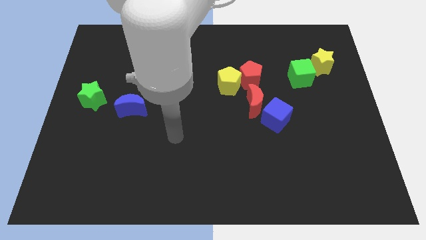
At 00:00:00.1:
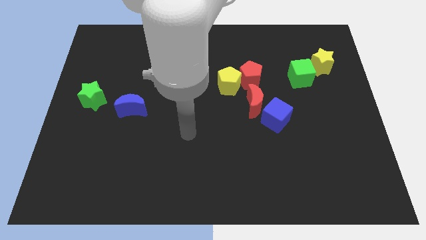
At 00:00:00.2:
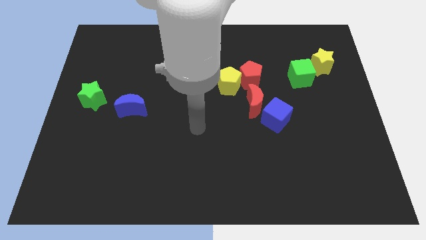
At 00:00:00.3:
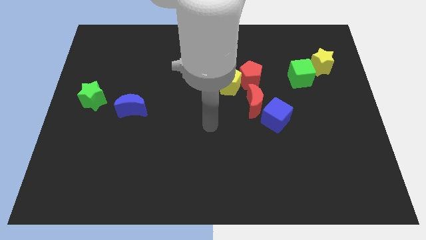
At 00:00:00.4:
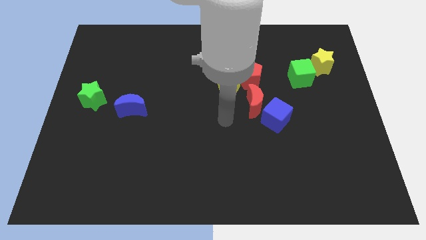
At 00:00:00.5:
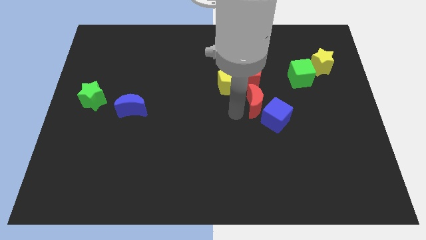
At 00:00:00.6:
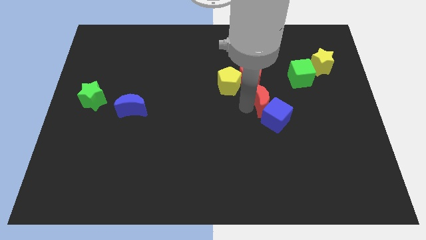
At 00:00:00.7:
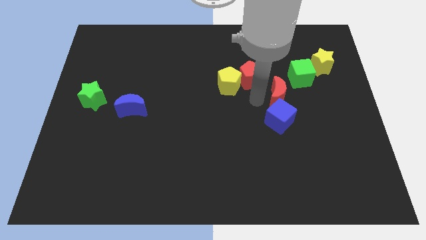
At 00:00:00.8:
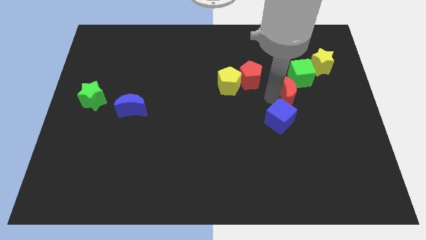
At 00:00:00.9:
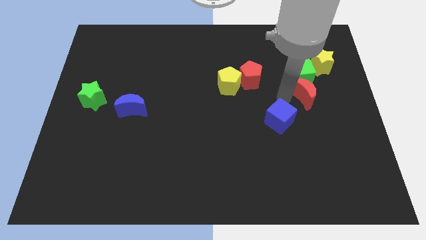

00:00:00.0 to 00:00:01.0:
pull the blue cube apart from the red moon

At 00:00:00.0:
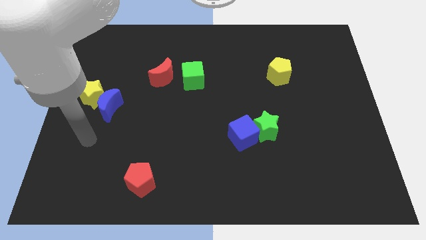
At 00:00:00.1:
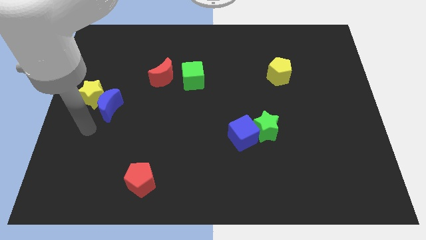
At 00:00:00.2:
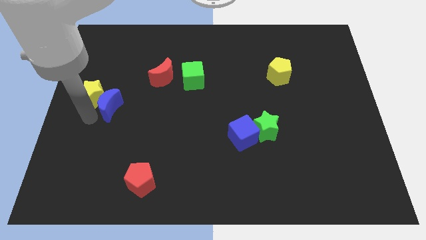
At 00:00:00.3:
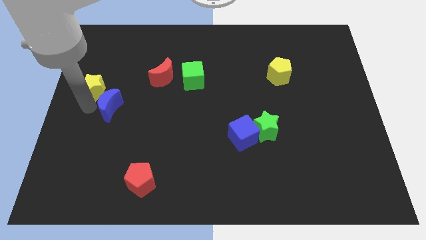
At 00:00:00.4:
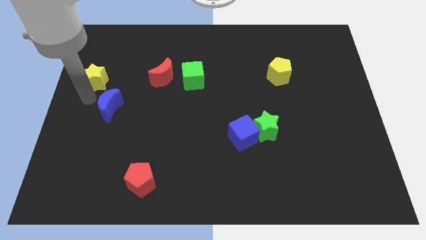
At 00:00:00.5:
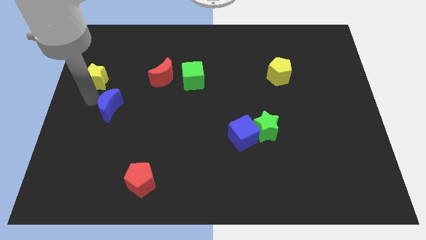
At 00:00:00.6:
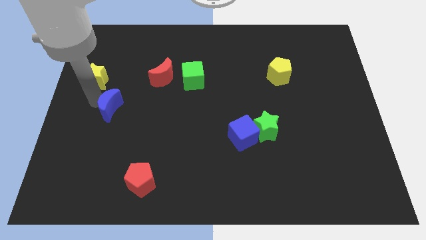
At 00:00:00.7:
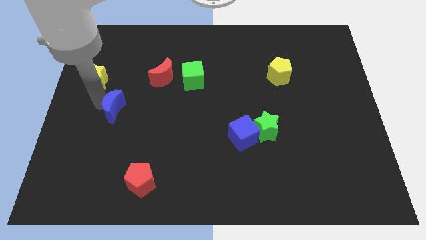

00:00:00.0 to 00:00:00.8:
move the blue moon away from the yellow star

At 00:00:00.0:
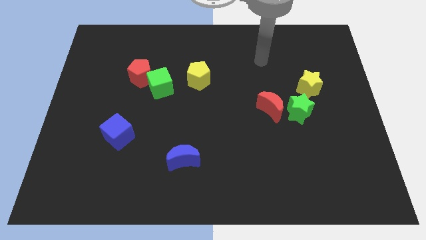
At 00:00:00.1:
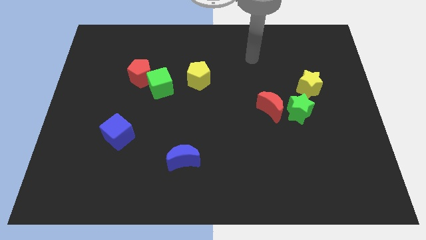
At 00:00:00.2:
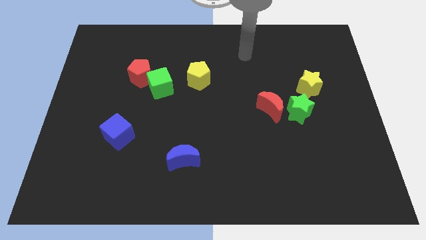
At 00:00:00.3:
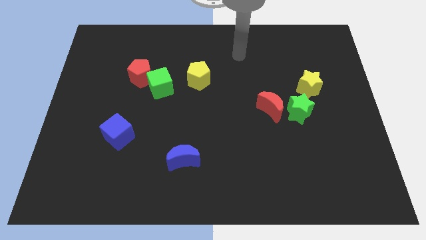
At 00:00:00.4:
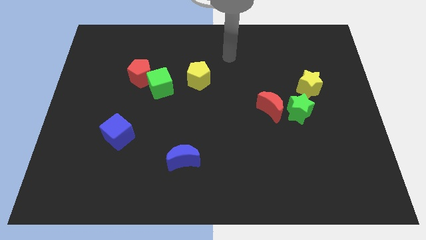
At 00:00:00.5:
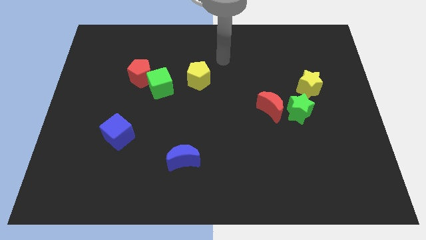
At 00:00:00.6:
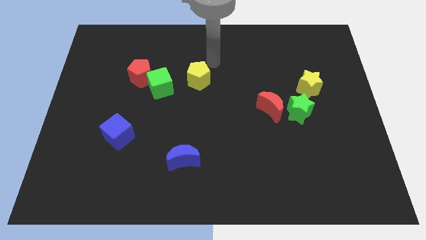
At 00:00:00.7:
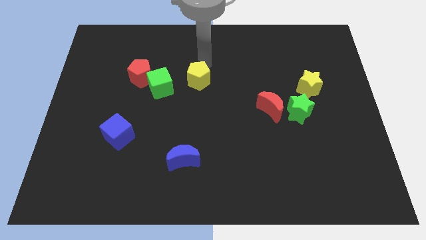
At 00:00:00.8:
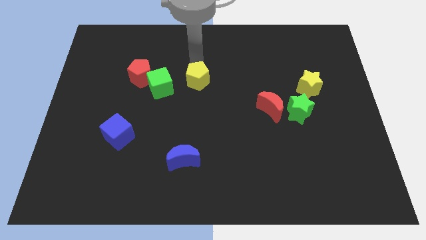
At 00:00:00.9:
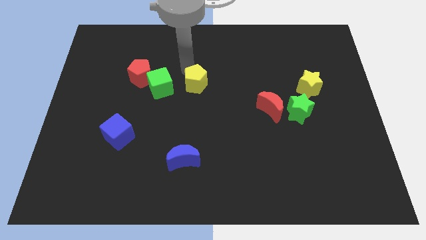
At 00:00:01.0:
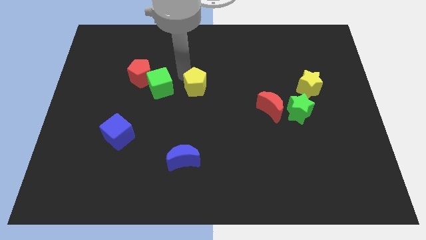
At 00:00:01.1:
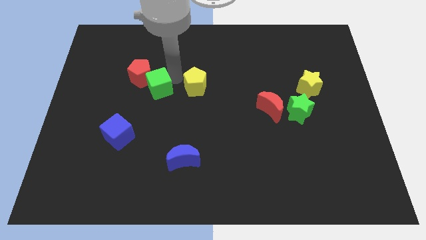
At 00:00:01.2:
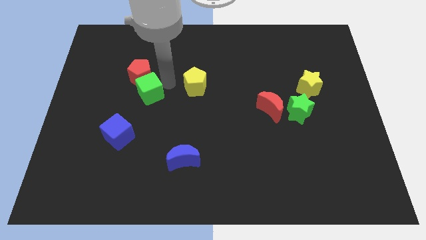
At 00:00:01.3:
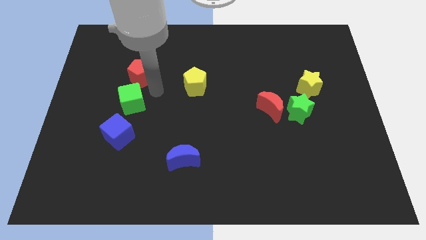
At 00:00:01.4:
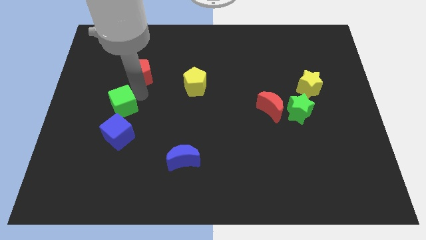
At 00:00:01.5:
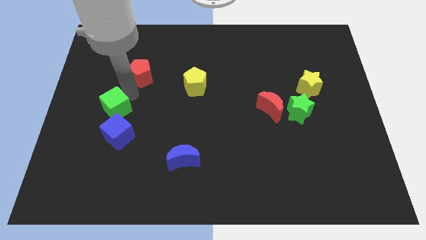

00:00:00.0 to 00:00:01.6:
pull the red pentagon apart from the green cube

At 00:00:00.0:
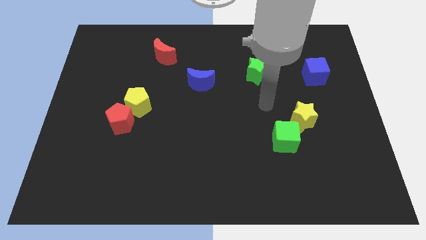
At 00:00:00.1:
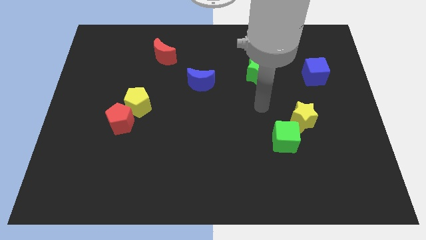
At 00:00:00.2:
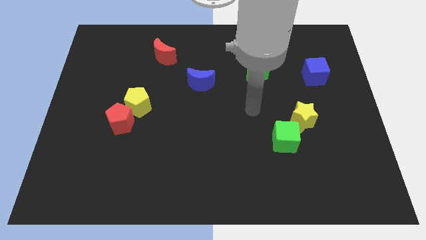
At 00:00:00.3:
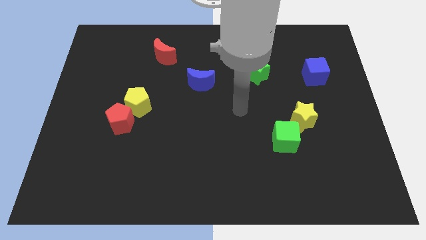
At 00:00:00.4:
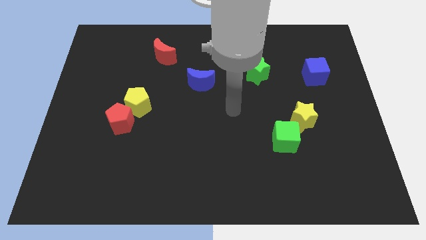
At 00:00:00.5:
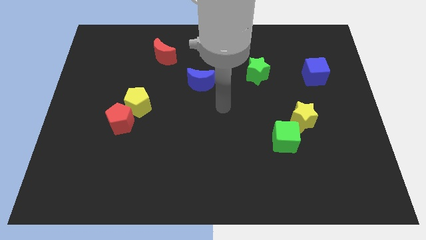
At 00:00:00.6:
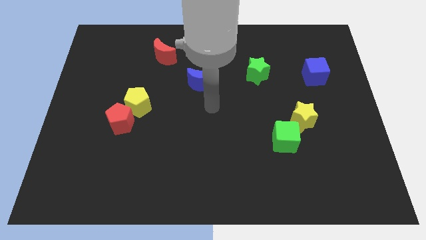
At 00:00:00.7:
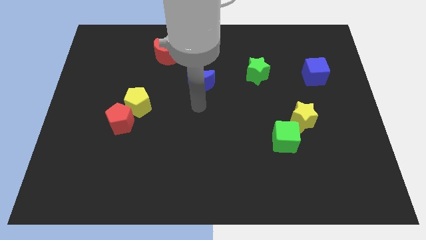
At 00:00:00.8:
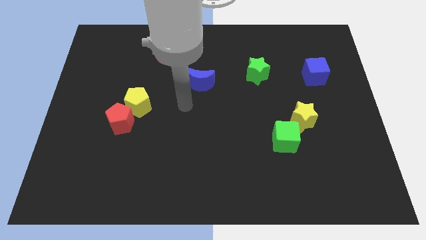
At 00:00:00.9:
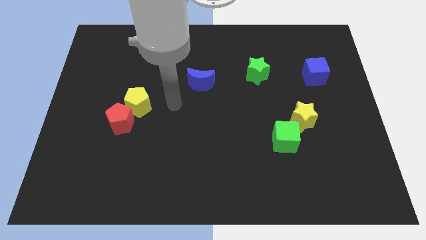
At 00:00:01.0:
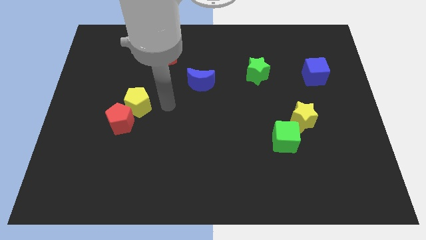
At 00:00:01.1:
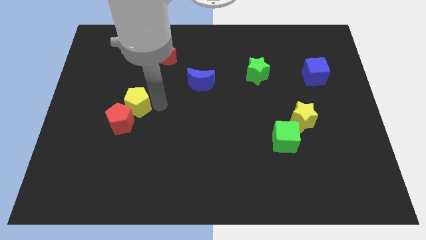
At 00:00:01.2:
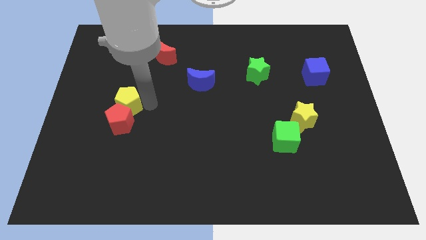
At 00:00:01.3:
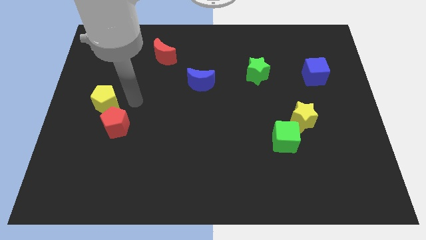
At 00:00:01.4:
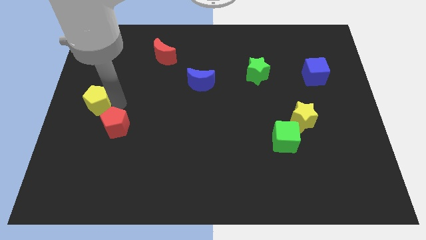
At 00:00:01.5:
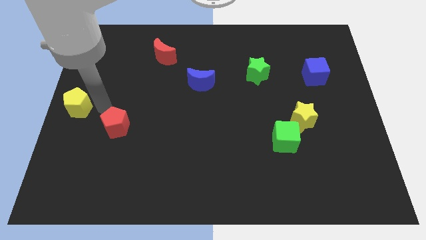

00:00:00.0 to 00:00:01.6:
separate the red pentagon from the yellow pentagon

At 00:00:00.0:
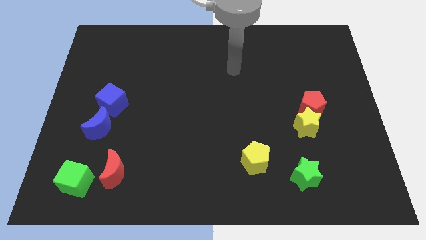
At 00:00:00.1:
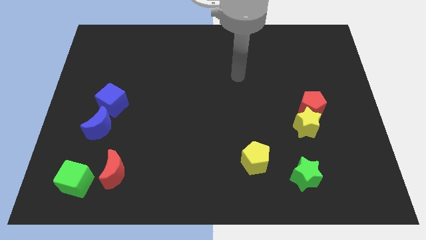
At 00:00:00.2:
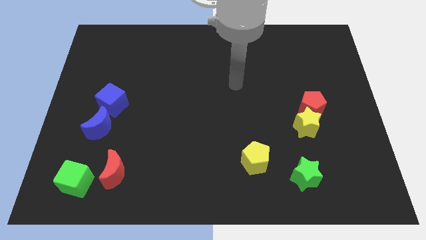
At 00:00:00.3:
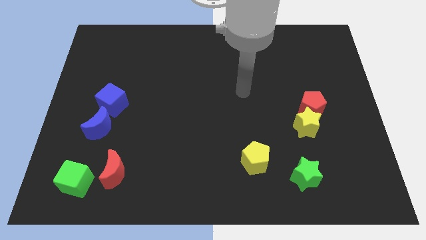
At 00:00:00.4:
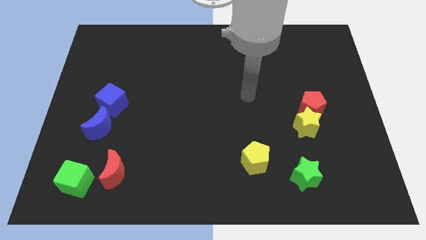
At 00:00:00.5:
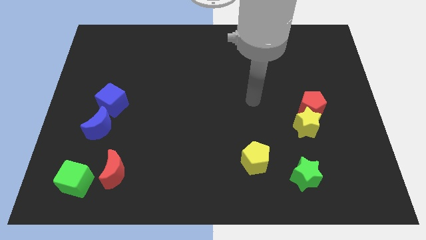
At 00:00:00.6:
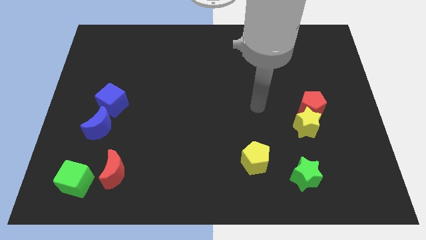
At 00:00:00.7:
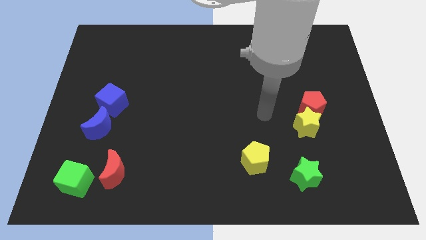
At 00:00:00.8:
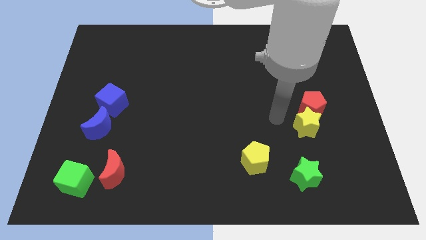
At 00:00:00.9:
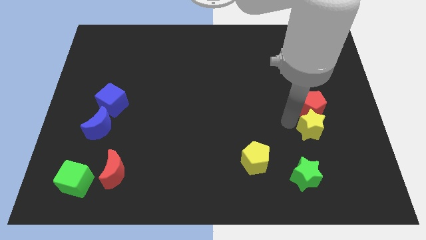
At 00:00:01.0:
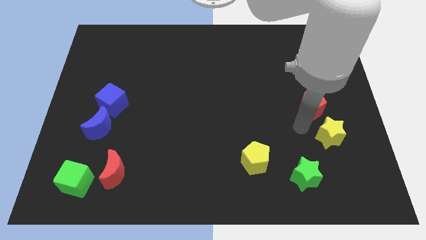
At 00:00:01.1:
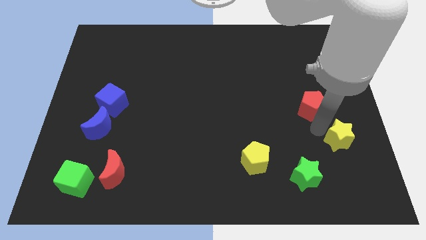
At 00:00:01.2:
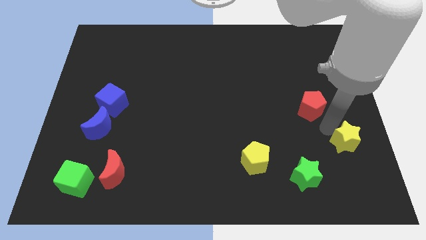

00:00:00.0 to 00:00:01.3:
separate the red pentagon from the yellow star

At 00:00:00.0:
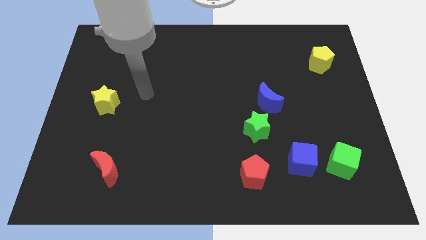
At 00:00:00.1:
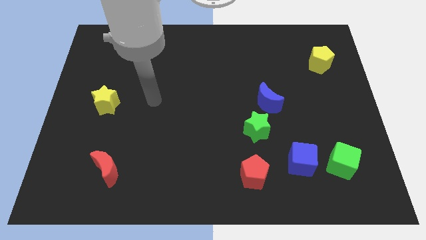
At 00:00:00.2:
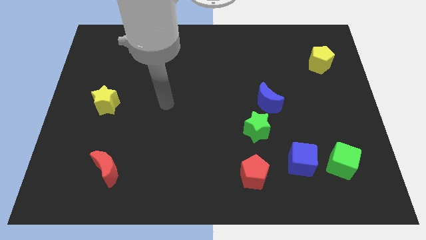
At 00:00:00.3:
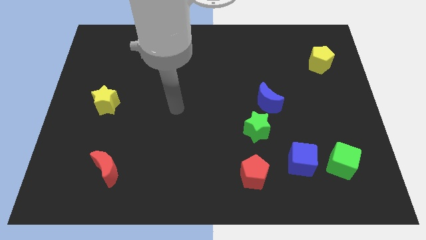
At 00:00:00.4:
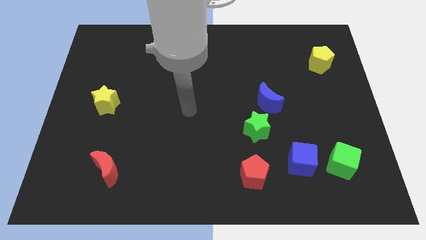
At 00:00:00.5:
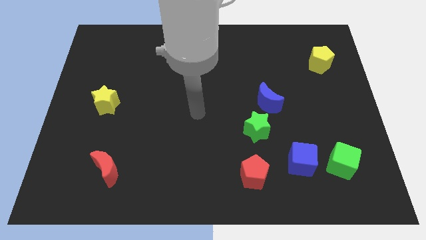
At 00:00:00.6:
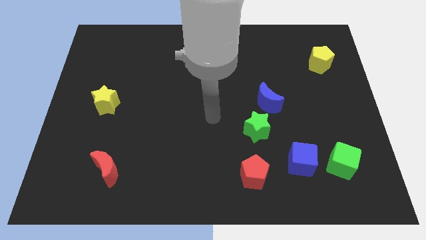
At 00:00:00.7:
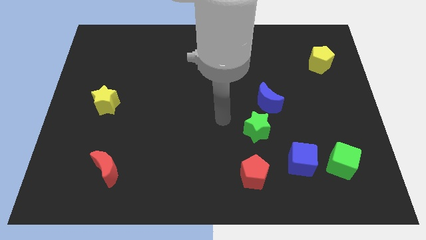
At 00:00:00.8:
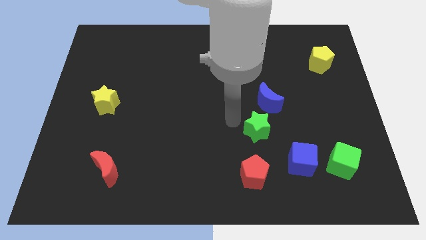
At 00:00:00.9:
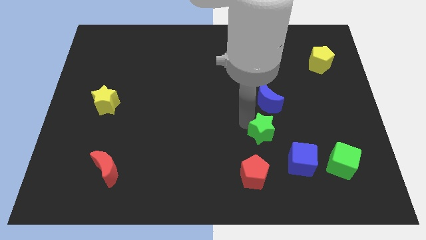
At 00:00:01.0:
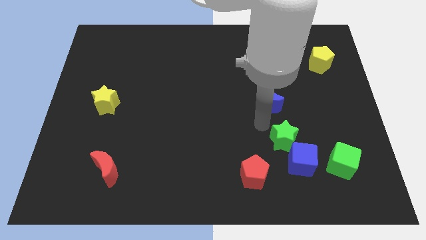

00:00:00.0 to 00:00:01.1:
move the blue moon away from the green star

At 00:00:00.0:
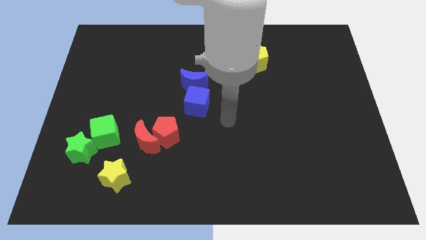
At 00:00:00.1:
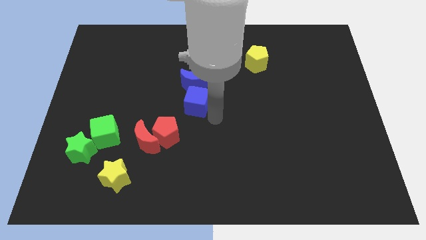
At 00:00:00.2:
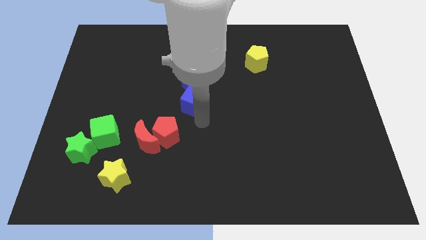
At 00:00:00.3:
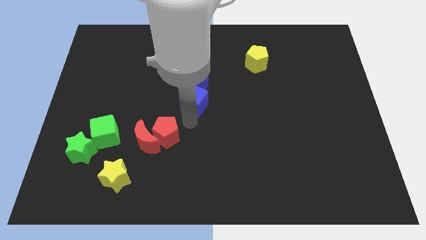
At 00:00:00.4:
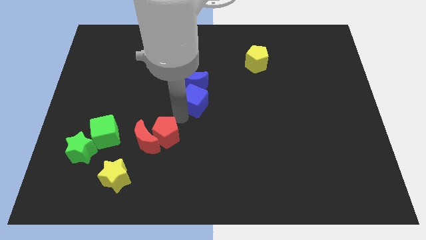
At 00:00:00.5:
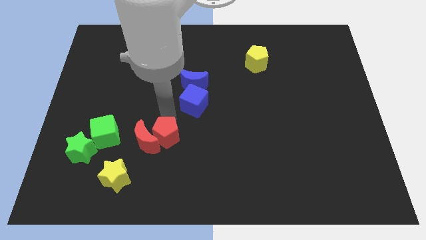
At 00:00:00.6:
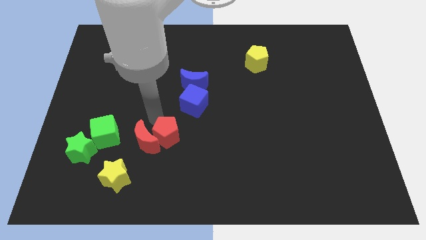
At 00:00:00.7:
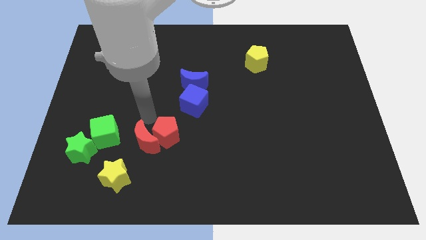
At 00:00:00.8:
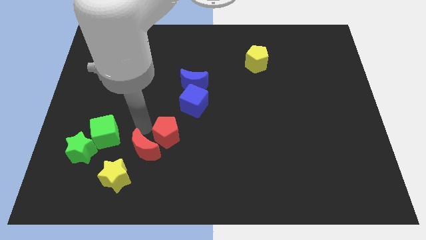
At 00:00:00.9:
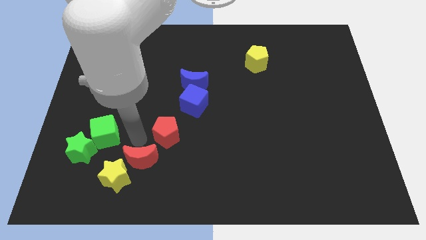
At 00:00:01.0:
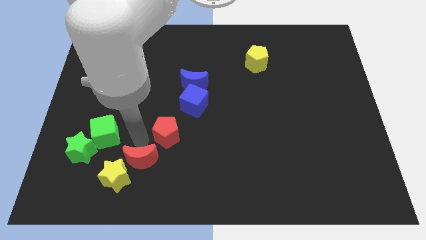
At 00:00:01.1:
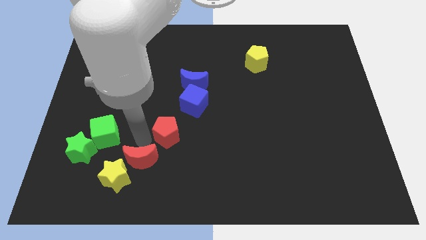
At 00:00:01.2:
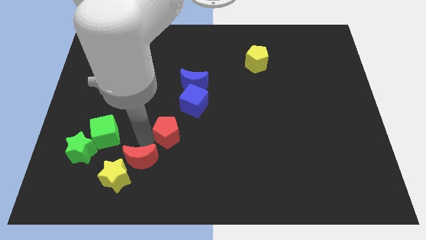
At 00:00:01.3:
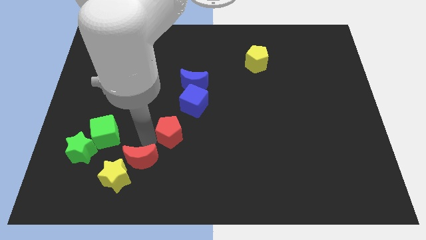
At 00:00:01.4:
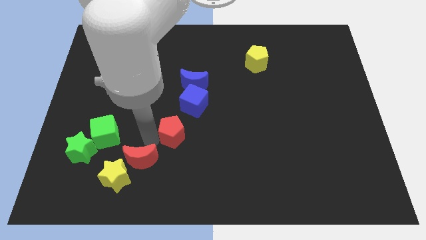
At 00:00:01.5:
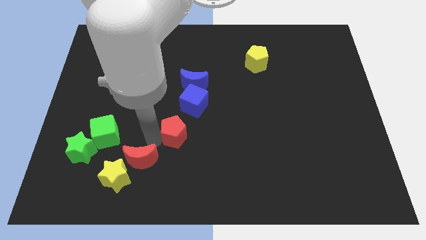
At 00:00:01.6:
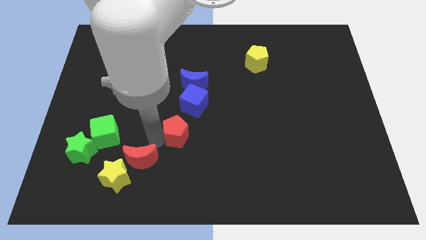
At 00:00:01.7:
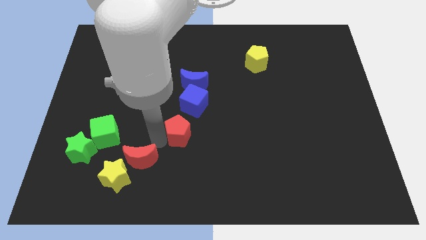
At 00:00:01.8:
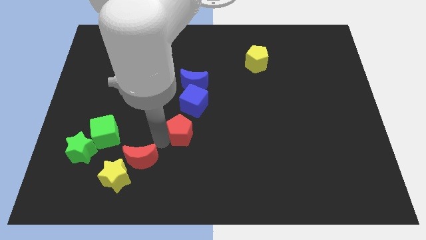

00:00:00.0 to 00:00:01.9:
pull the red pentagon apart from the red moon

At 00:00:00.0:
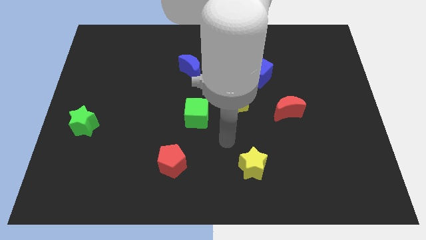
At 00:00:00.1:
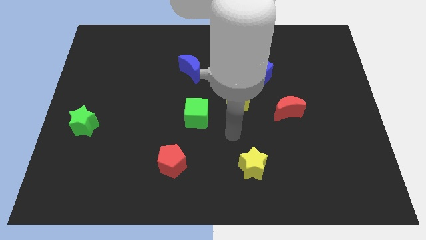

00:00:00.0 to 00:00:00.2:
move the blue cube away from the yellow pentagon
